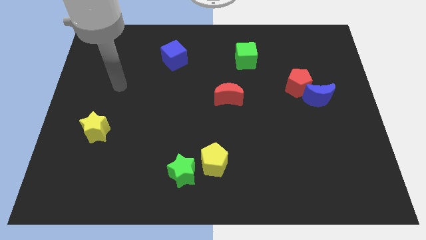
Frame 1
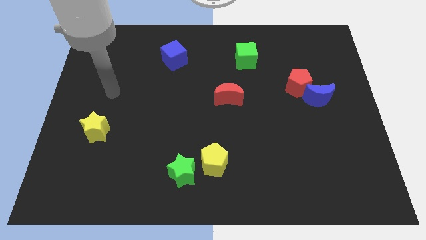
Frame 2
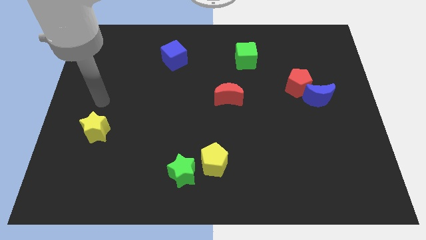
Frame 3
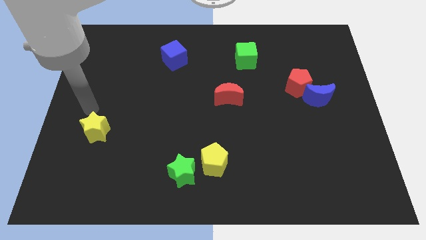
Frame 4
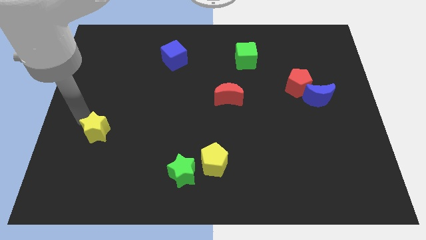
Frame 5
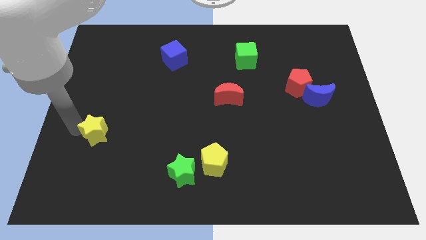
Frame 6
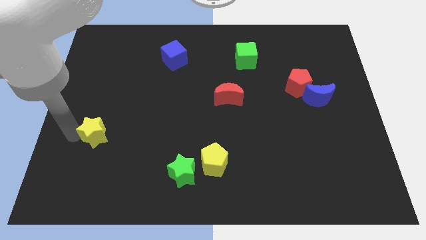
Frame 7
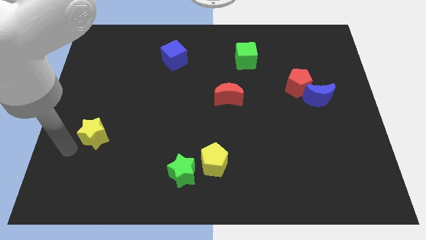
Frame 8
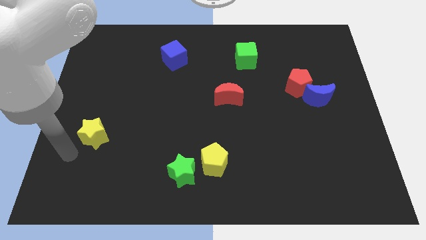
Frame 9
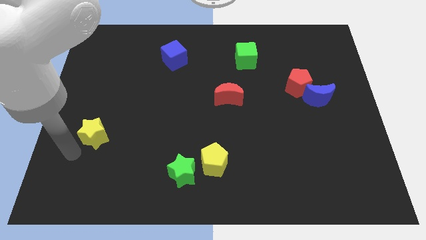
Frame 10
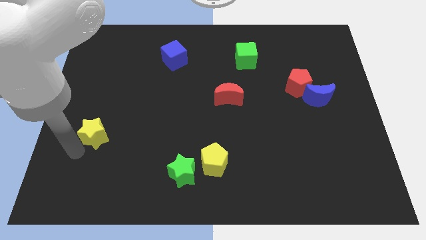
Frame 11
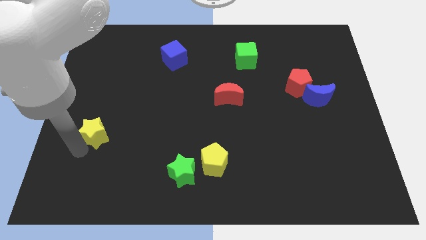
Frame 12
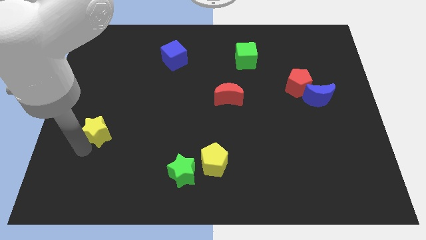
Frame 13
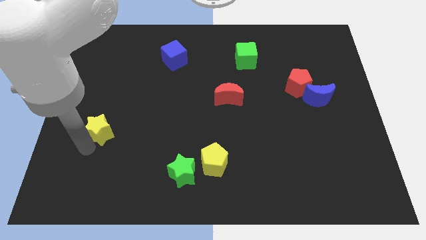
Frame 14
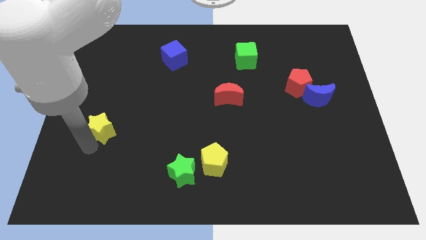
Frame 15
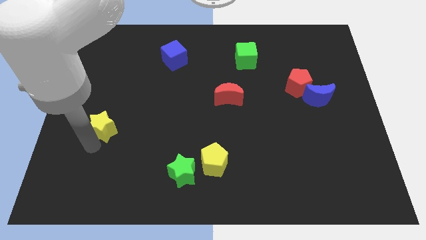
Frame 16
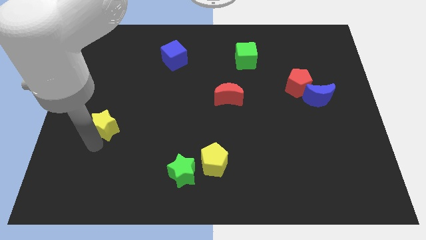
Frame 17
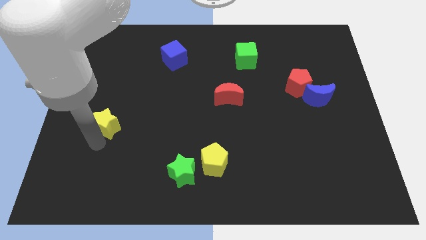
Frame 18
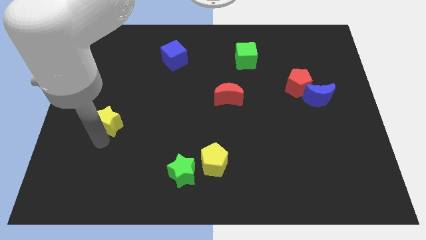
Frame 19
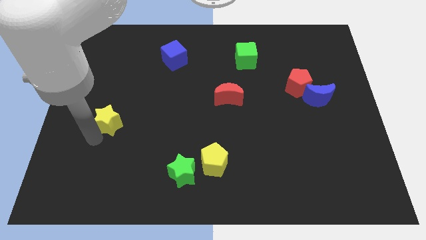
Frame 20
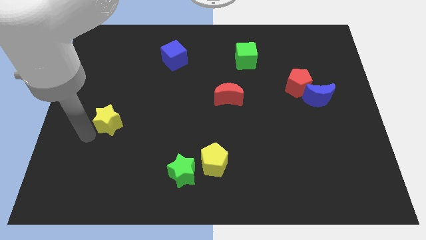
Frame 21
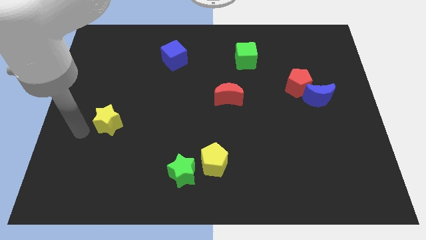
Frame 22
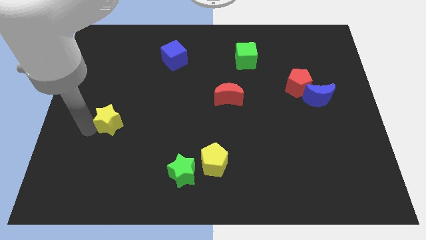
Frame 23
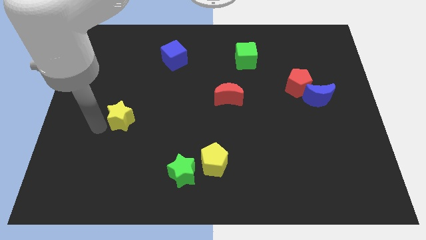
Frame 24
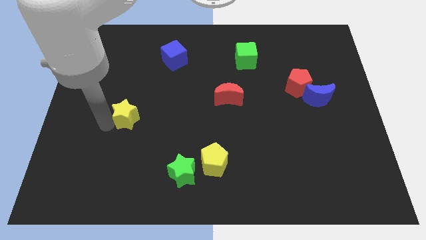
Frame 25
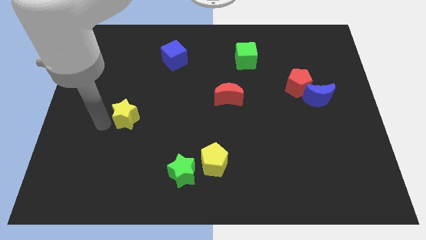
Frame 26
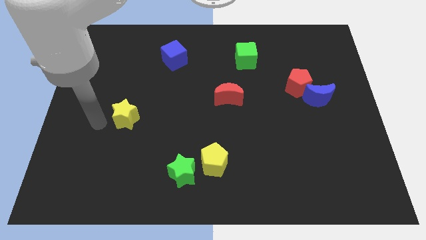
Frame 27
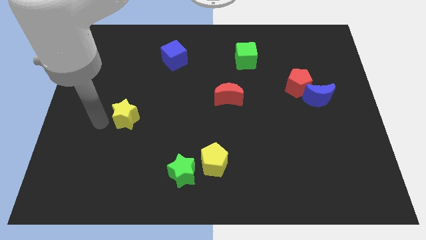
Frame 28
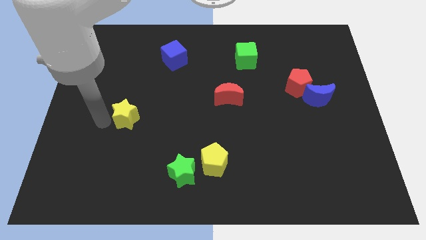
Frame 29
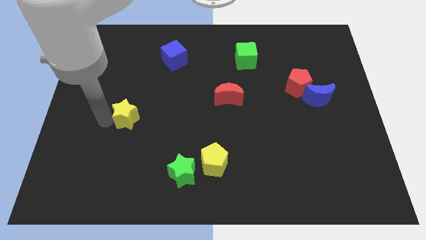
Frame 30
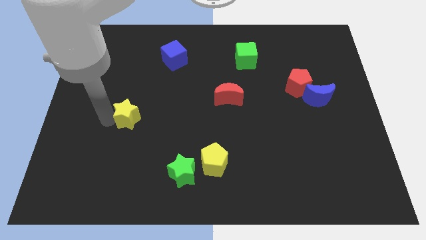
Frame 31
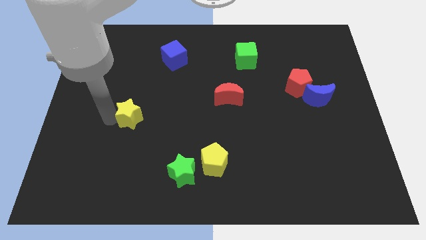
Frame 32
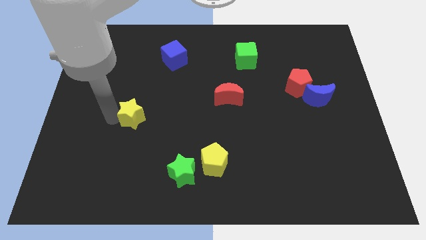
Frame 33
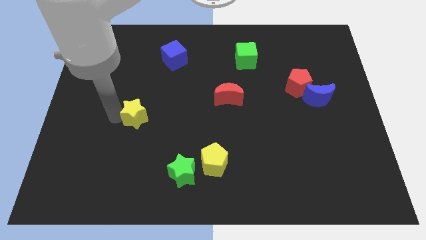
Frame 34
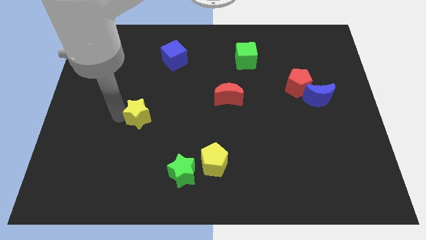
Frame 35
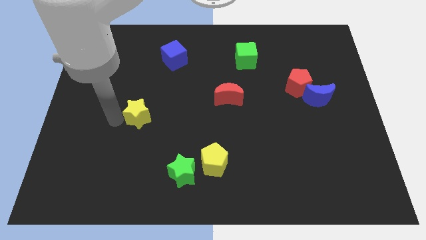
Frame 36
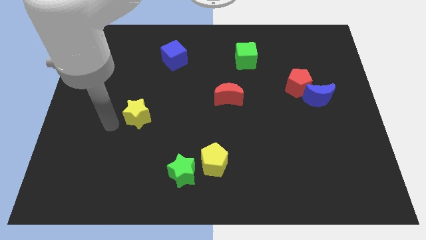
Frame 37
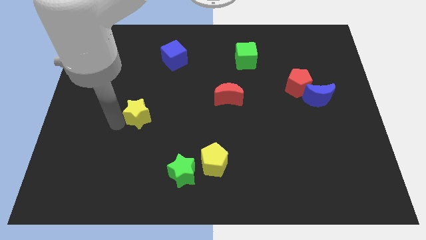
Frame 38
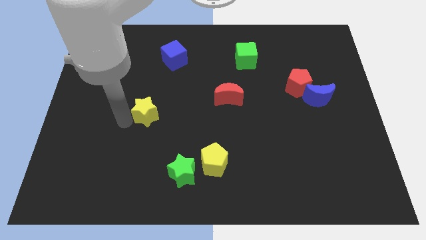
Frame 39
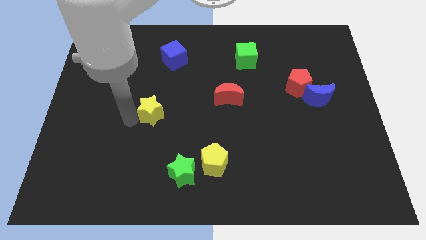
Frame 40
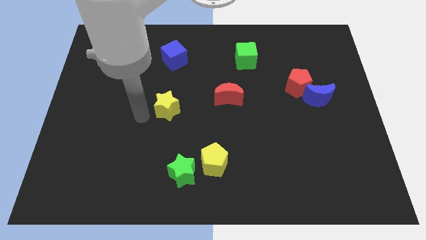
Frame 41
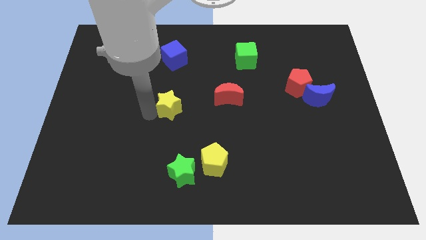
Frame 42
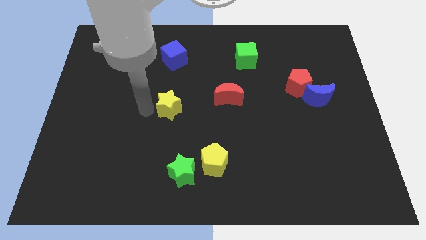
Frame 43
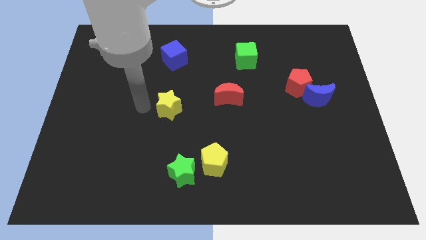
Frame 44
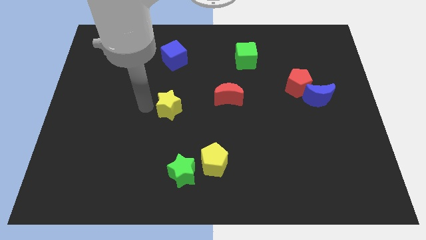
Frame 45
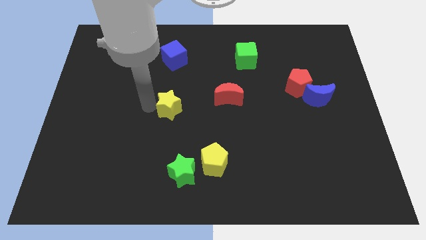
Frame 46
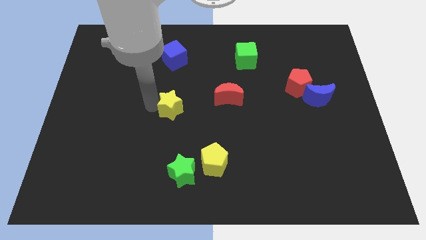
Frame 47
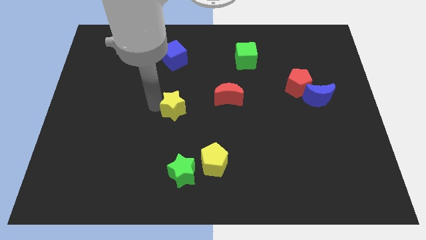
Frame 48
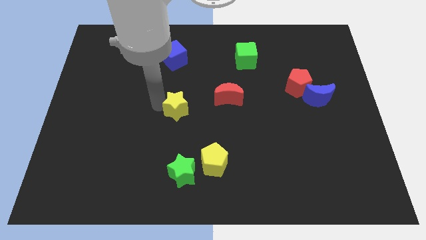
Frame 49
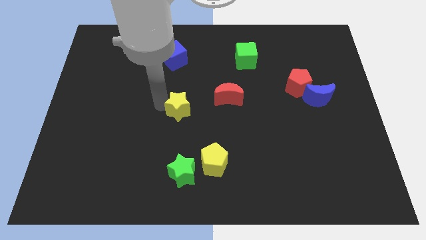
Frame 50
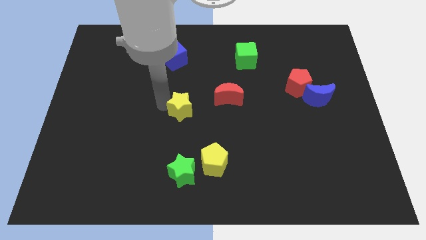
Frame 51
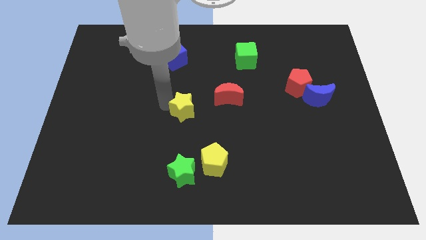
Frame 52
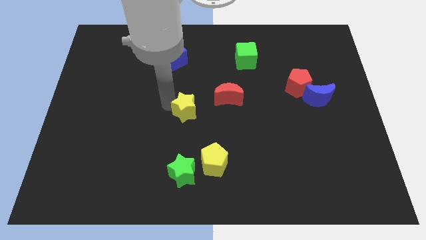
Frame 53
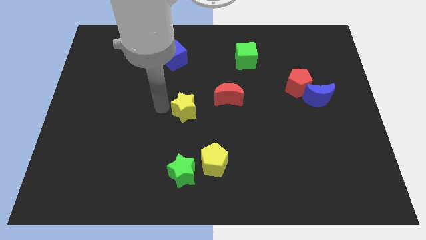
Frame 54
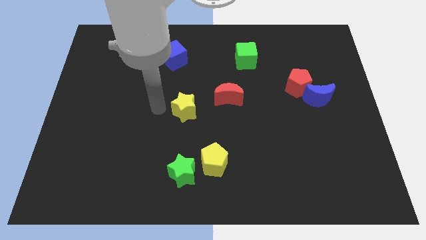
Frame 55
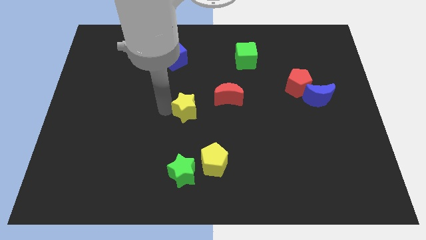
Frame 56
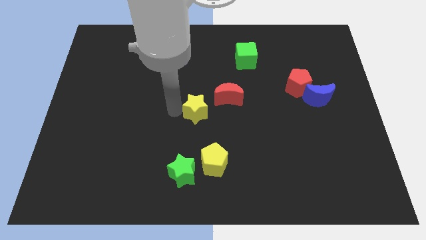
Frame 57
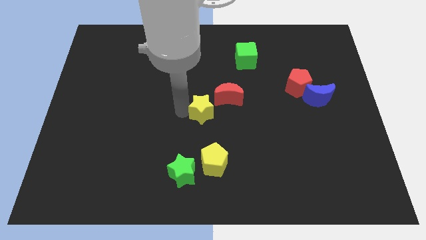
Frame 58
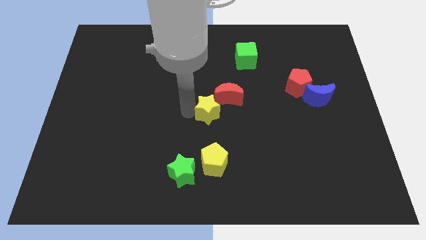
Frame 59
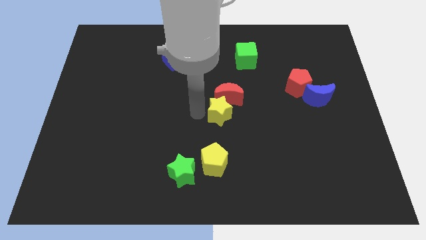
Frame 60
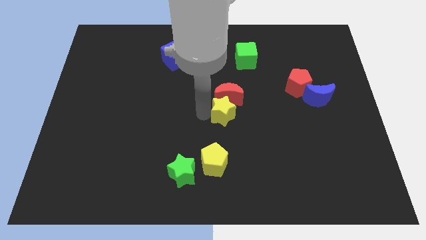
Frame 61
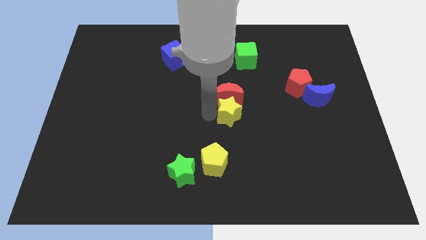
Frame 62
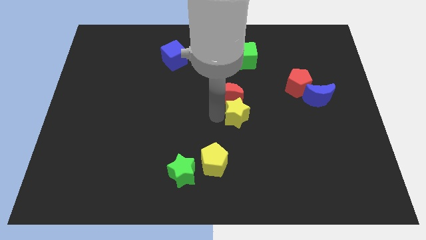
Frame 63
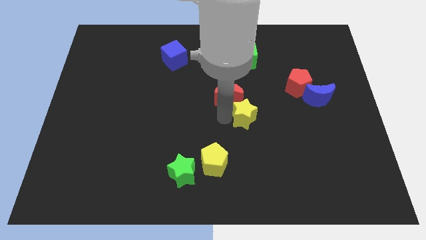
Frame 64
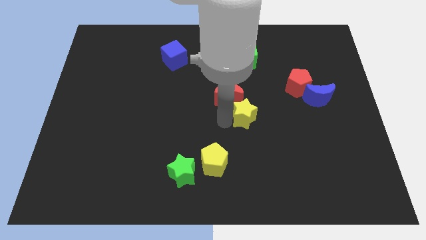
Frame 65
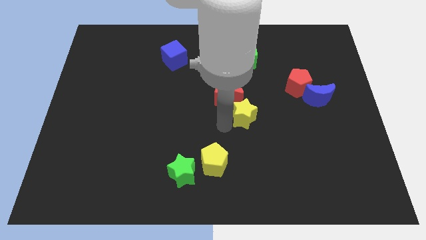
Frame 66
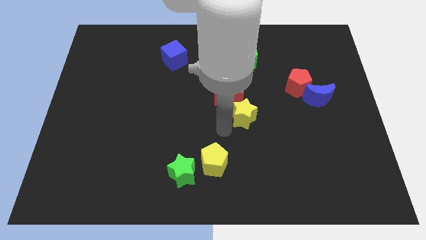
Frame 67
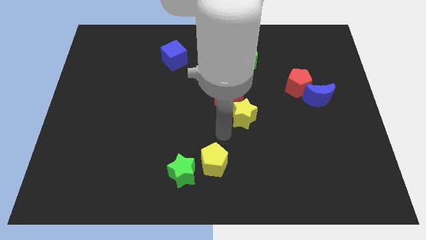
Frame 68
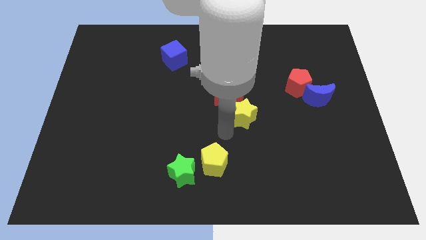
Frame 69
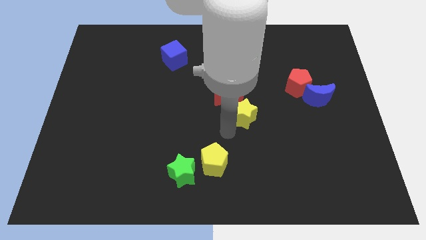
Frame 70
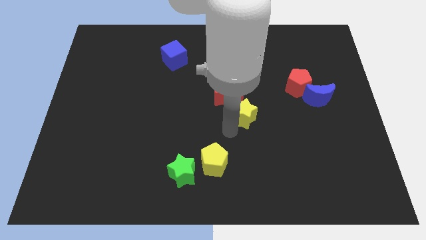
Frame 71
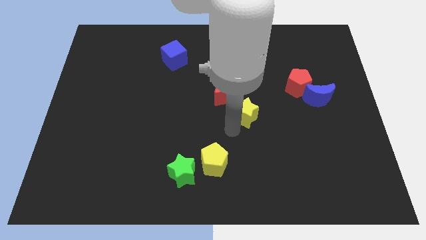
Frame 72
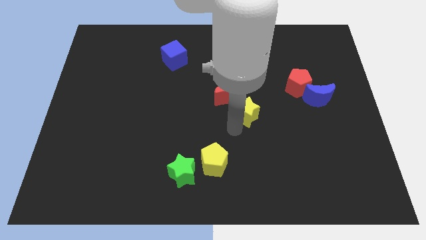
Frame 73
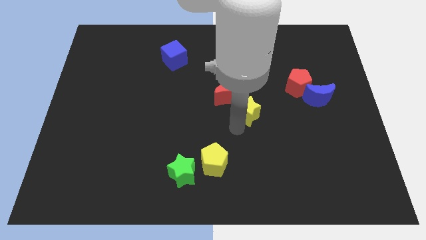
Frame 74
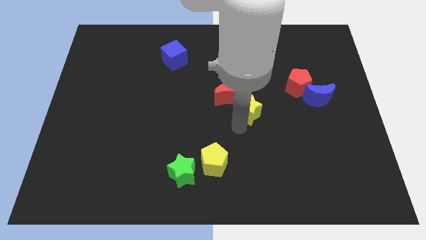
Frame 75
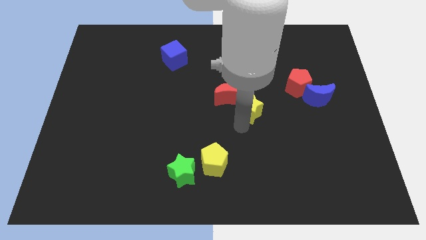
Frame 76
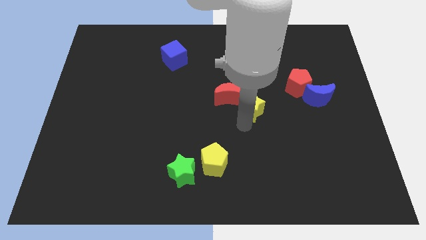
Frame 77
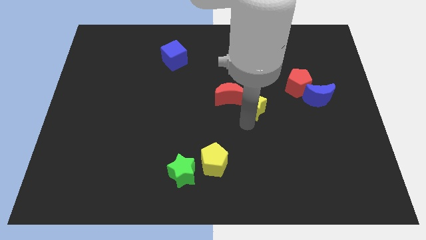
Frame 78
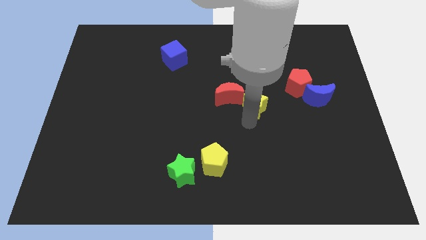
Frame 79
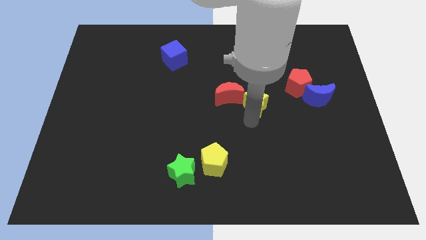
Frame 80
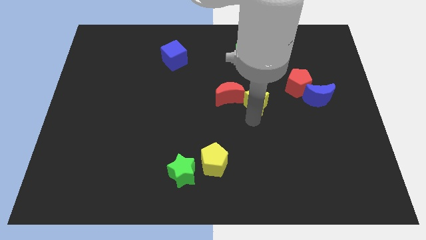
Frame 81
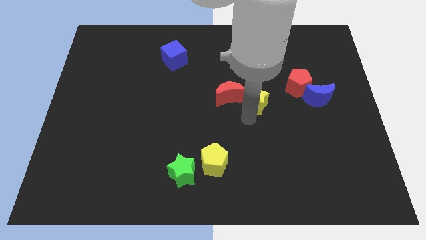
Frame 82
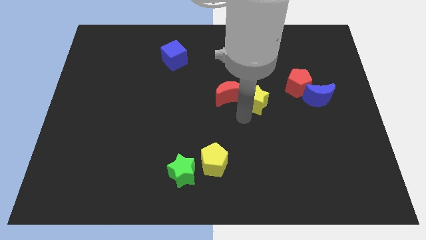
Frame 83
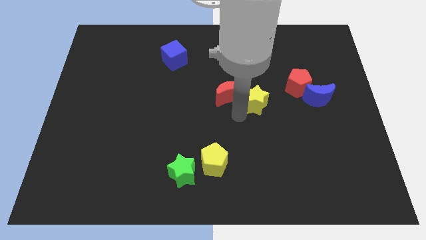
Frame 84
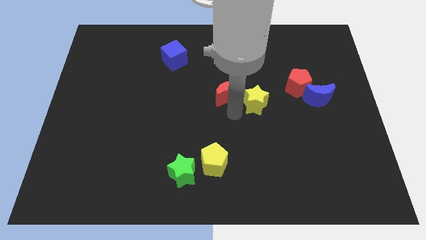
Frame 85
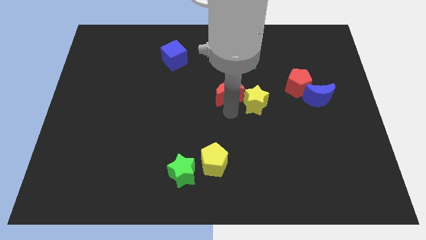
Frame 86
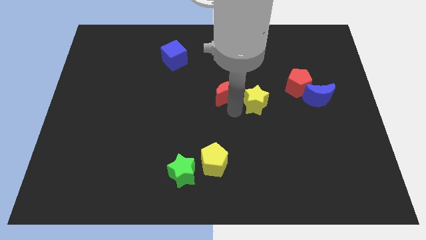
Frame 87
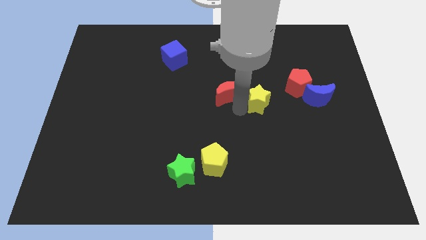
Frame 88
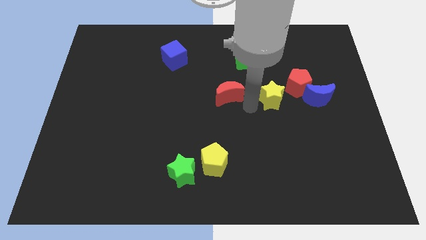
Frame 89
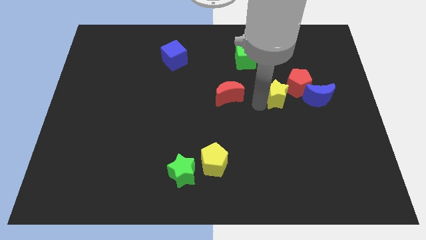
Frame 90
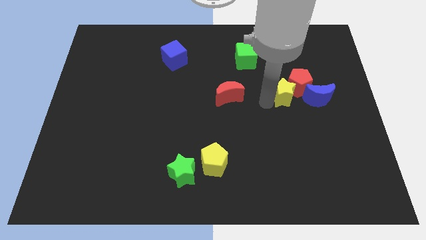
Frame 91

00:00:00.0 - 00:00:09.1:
put the yellow star next to the red pentagon
